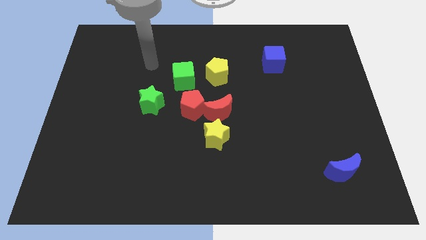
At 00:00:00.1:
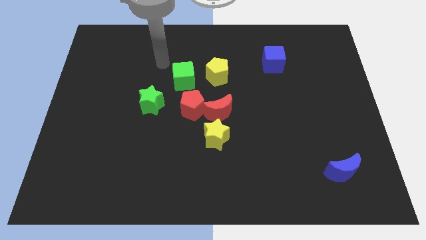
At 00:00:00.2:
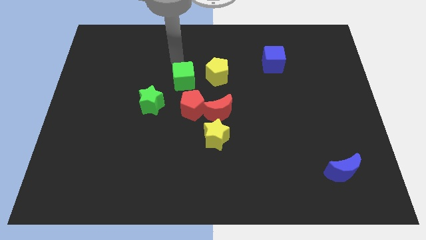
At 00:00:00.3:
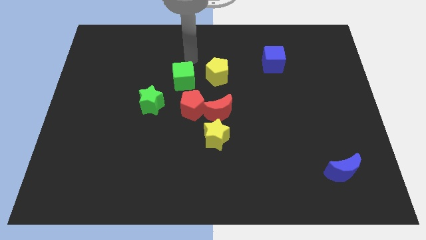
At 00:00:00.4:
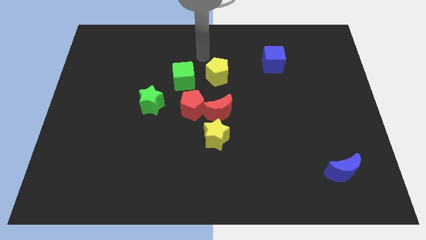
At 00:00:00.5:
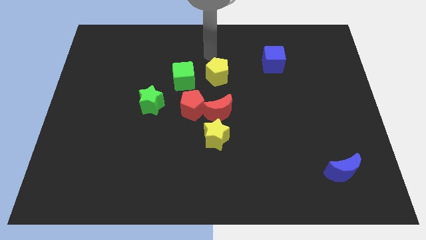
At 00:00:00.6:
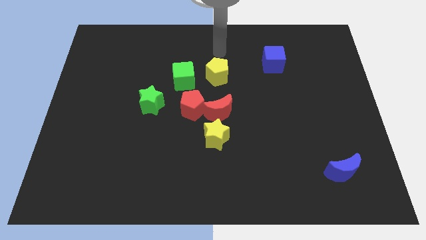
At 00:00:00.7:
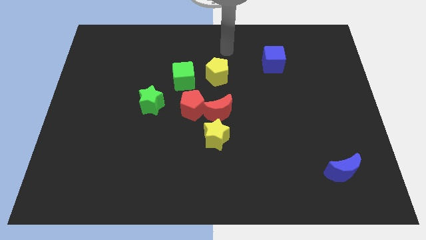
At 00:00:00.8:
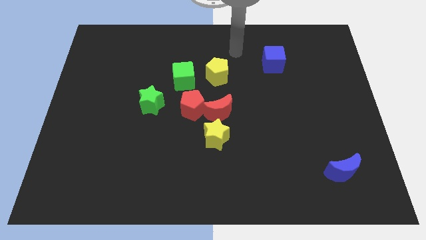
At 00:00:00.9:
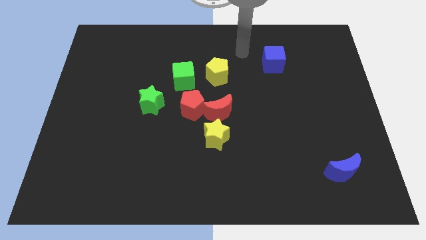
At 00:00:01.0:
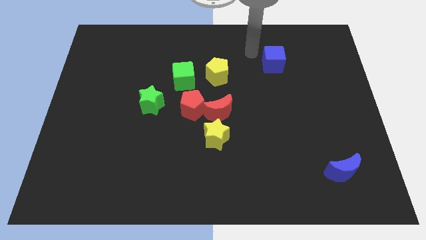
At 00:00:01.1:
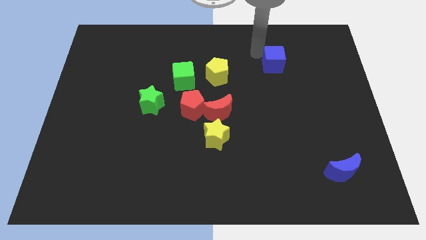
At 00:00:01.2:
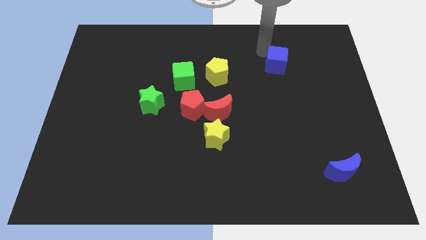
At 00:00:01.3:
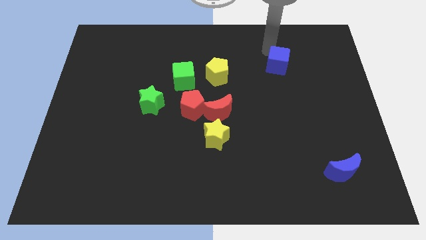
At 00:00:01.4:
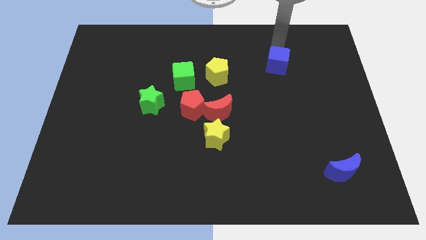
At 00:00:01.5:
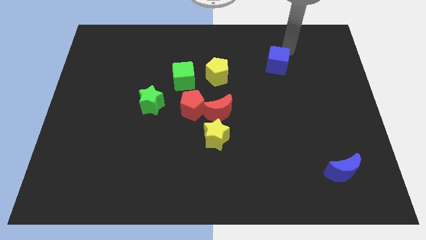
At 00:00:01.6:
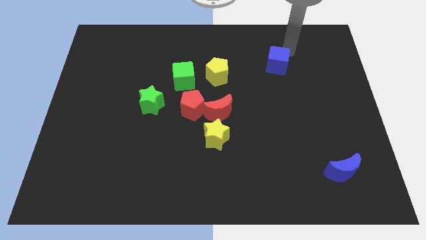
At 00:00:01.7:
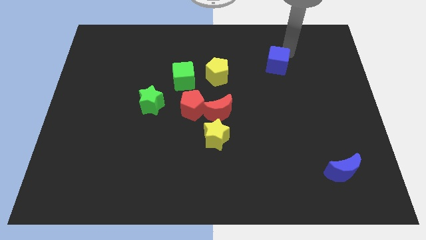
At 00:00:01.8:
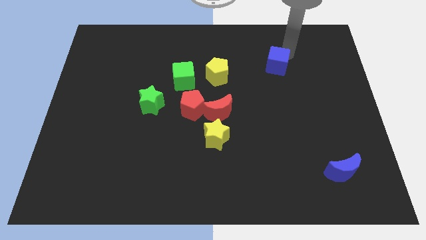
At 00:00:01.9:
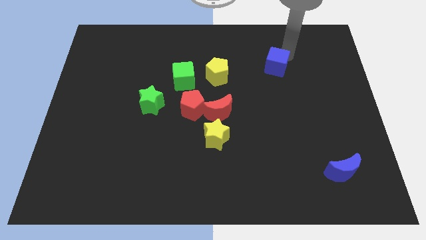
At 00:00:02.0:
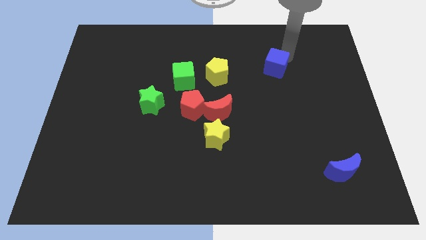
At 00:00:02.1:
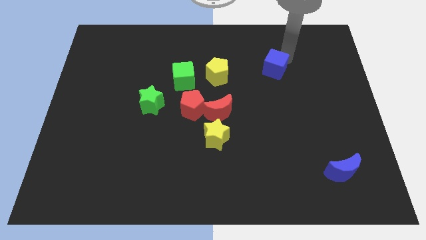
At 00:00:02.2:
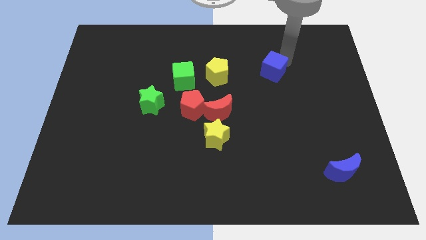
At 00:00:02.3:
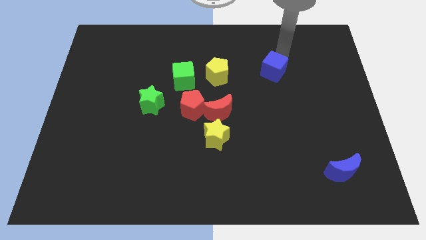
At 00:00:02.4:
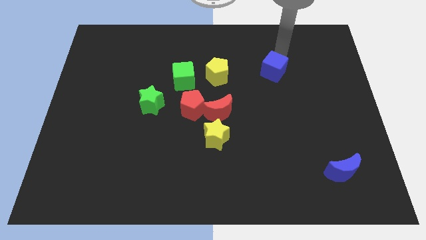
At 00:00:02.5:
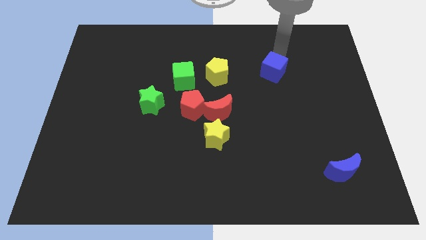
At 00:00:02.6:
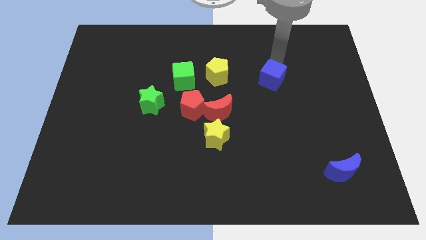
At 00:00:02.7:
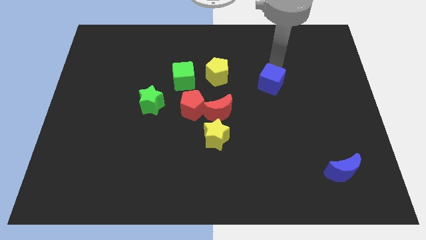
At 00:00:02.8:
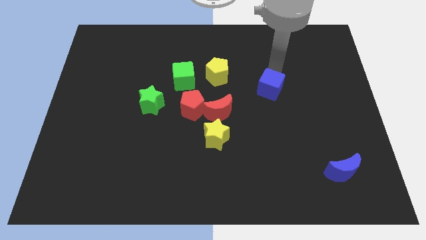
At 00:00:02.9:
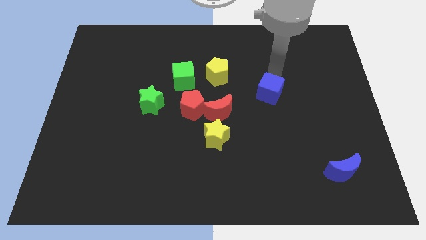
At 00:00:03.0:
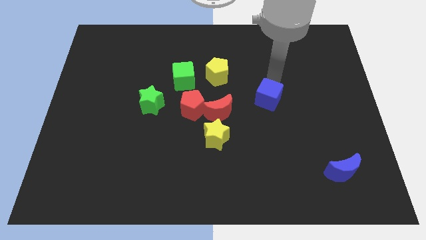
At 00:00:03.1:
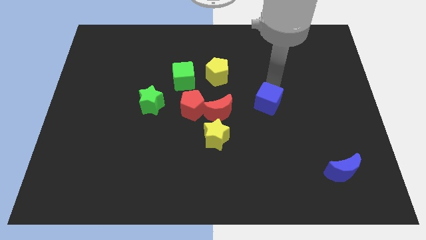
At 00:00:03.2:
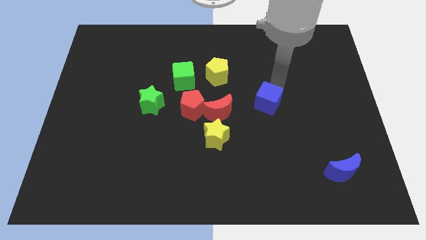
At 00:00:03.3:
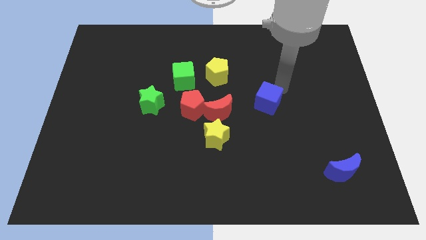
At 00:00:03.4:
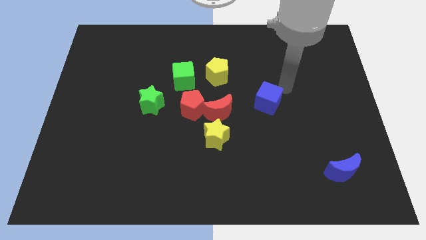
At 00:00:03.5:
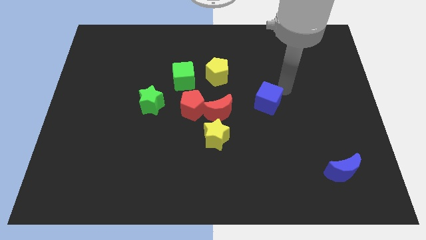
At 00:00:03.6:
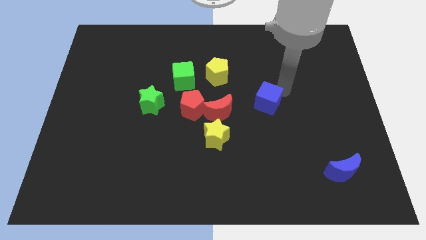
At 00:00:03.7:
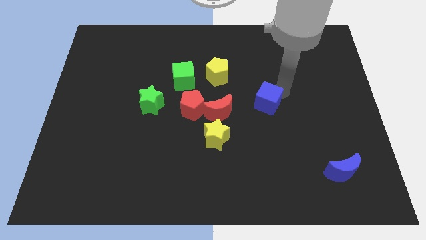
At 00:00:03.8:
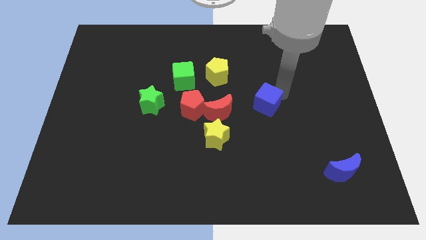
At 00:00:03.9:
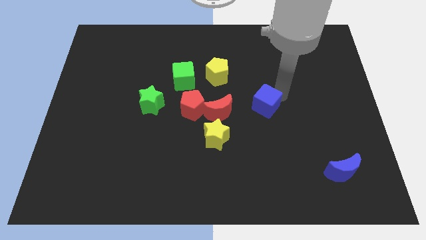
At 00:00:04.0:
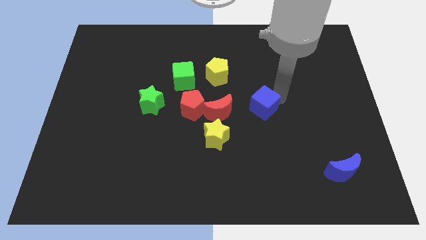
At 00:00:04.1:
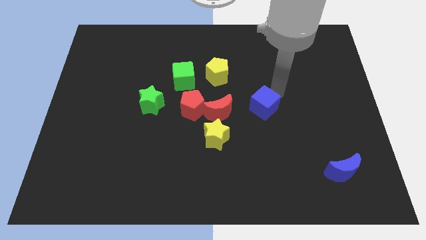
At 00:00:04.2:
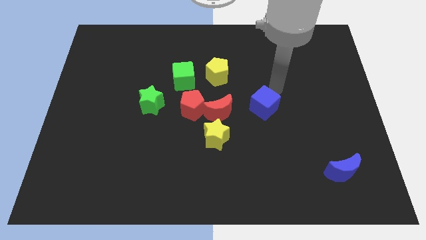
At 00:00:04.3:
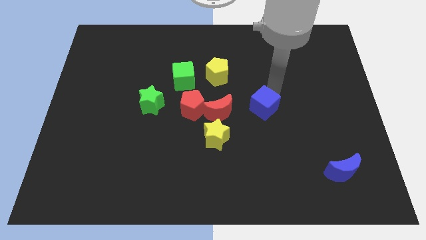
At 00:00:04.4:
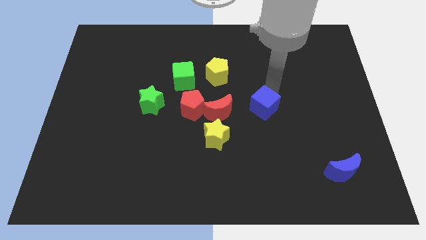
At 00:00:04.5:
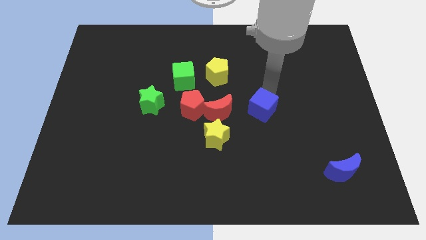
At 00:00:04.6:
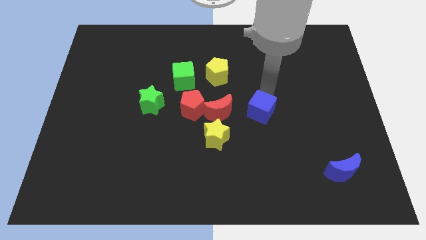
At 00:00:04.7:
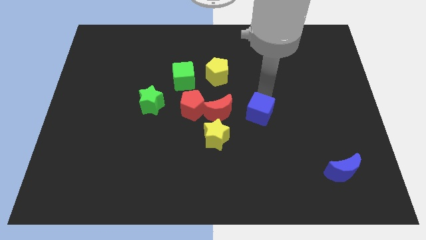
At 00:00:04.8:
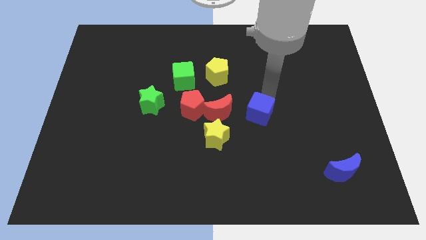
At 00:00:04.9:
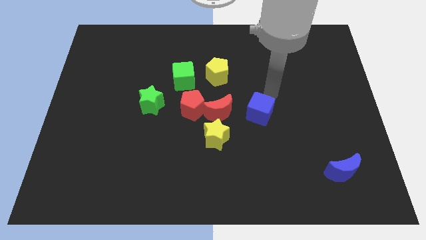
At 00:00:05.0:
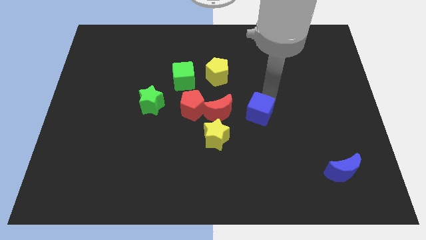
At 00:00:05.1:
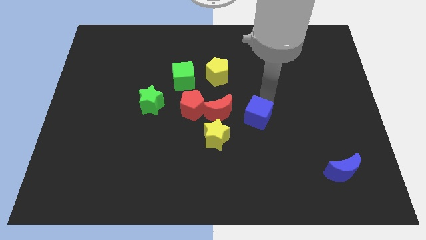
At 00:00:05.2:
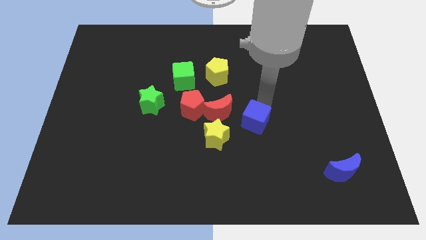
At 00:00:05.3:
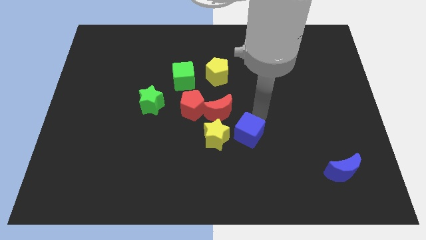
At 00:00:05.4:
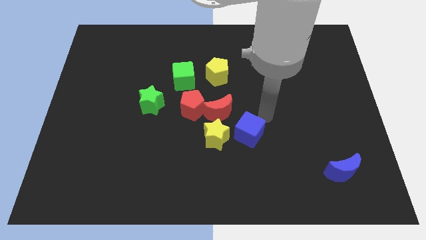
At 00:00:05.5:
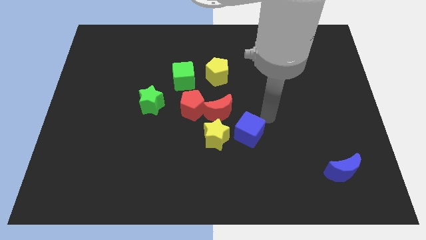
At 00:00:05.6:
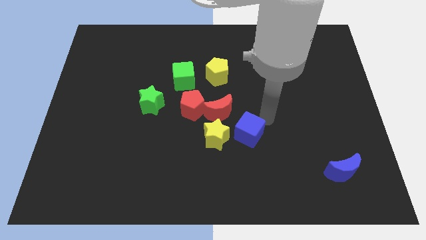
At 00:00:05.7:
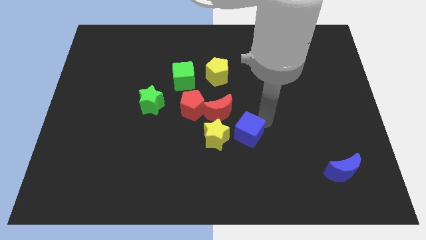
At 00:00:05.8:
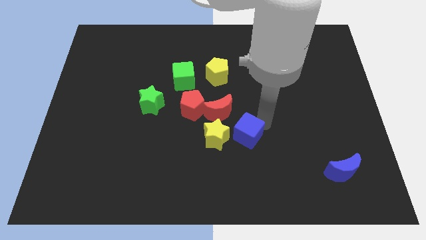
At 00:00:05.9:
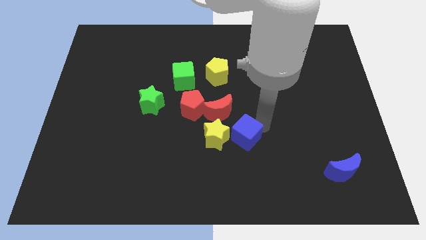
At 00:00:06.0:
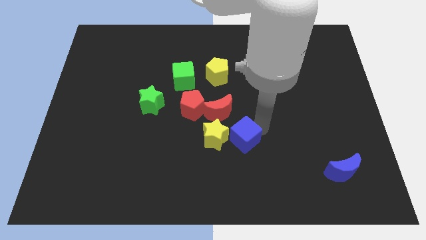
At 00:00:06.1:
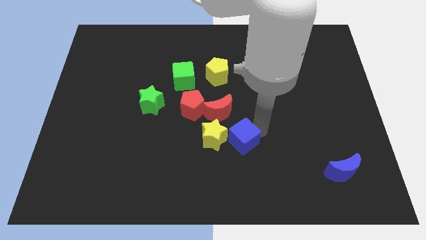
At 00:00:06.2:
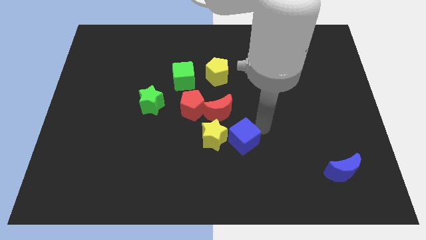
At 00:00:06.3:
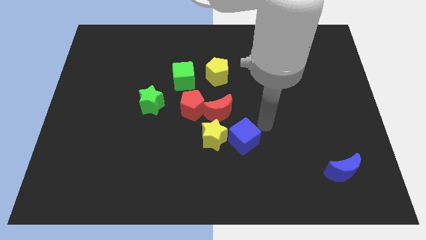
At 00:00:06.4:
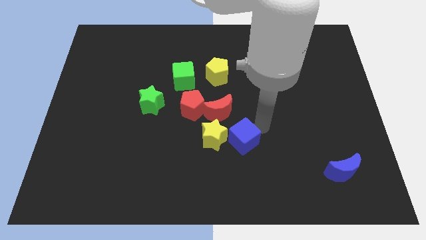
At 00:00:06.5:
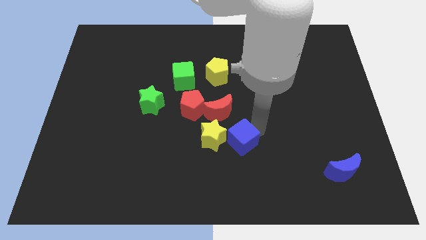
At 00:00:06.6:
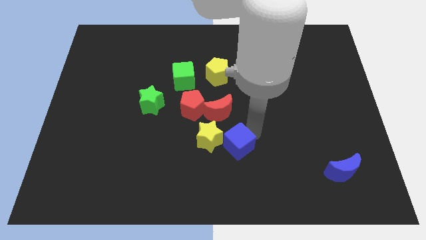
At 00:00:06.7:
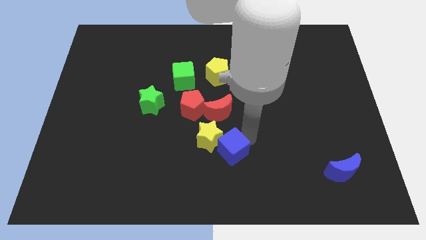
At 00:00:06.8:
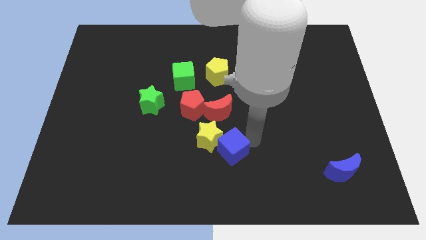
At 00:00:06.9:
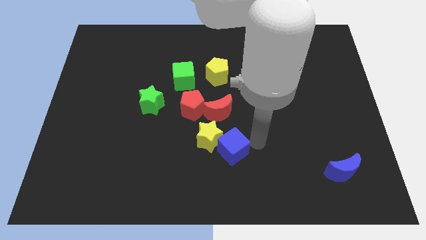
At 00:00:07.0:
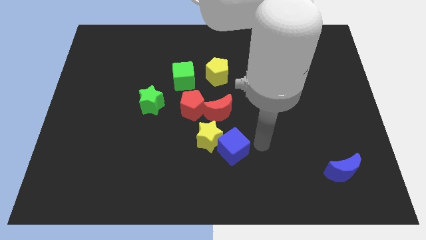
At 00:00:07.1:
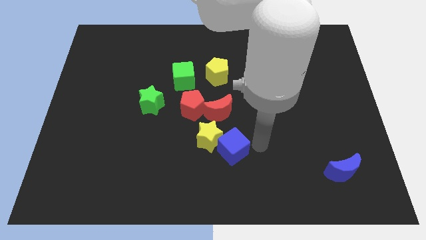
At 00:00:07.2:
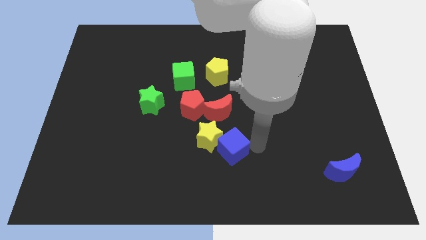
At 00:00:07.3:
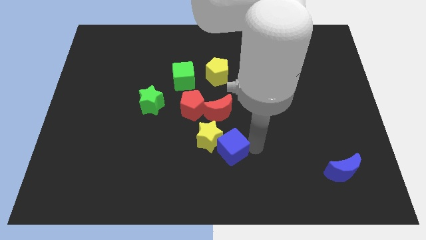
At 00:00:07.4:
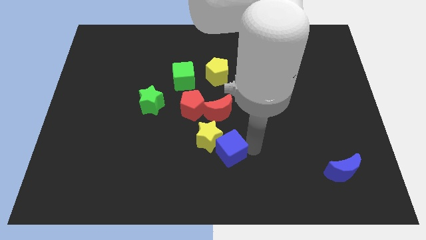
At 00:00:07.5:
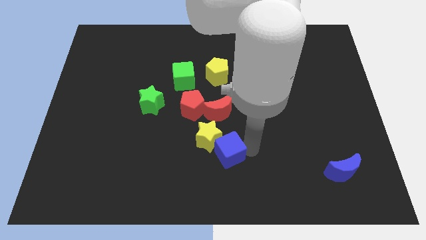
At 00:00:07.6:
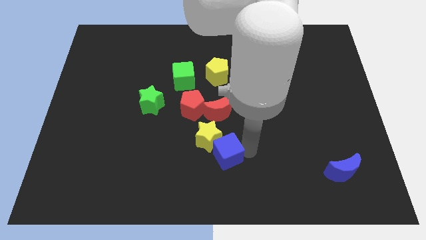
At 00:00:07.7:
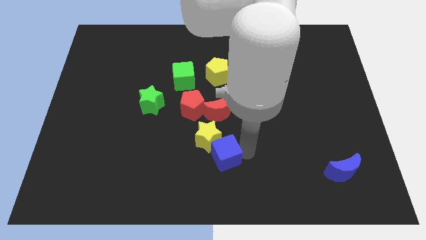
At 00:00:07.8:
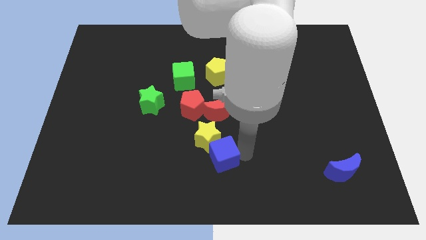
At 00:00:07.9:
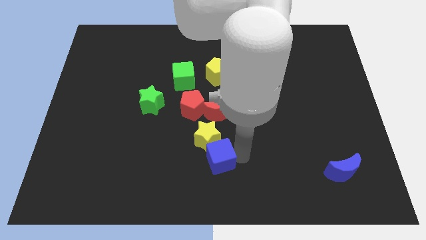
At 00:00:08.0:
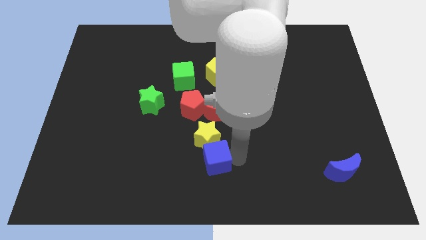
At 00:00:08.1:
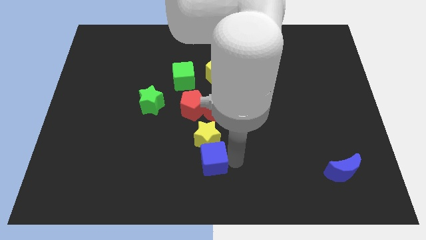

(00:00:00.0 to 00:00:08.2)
push the blue cube diagonally down and to the left of the yellow star
